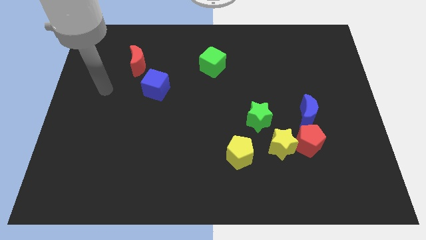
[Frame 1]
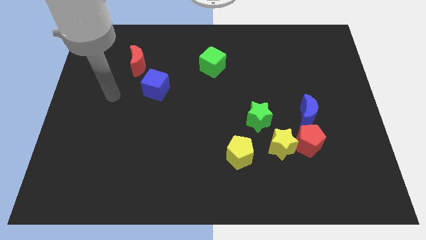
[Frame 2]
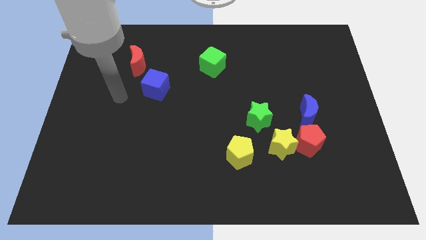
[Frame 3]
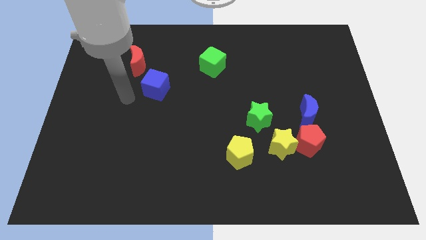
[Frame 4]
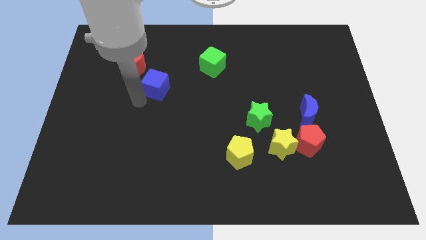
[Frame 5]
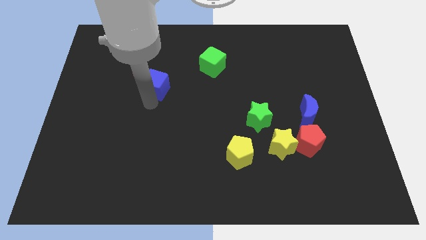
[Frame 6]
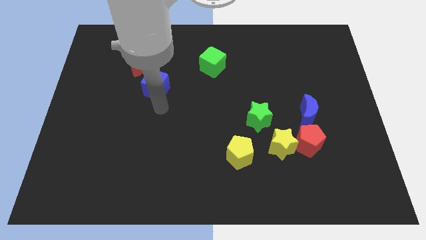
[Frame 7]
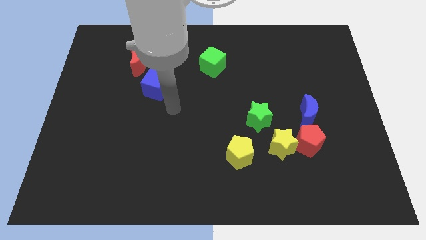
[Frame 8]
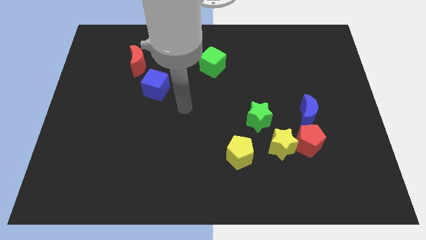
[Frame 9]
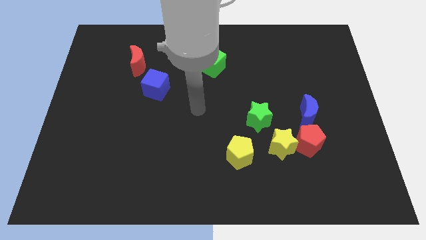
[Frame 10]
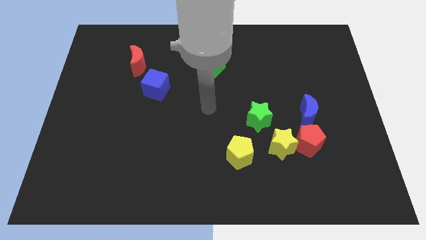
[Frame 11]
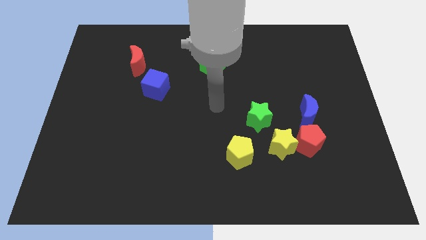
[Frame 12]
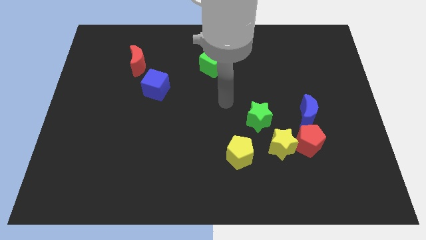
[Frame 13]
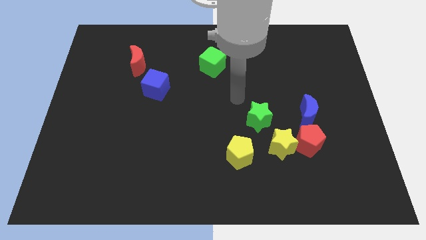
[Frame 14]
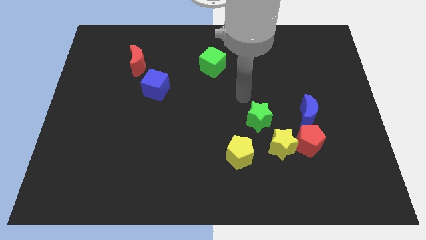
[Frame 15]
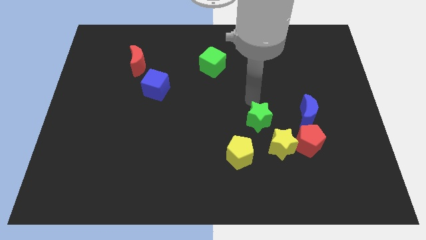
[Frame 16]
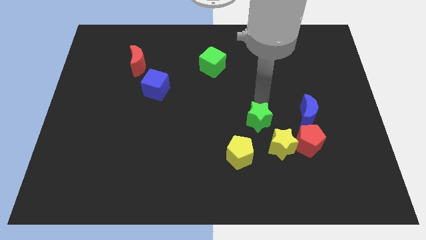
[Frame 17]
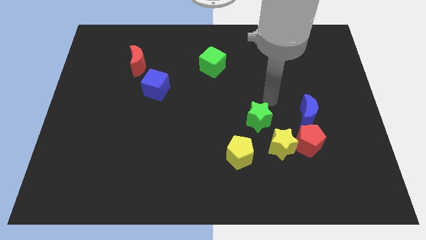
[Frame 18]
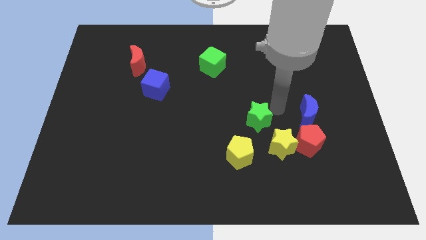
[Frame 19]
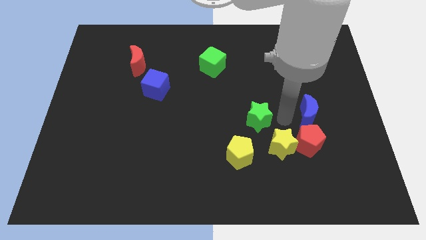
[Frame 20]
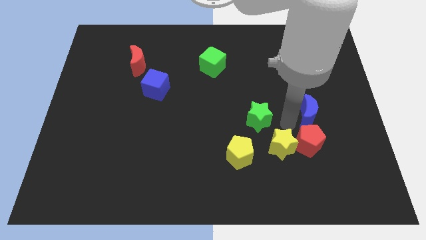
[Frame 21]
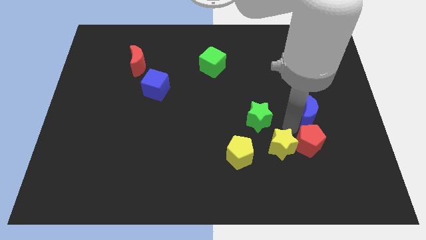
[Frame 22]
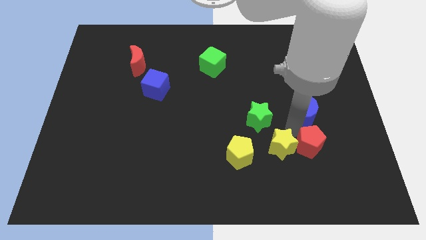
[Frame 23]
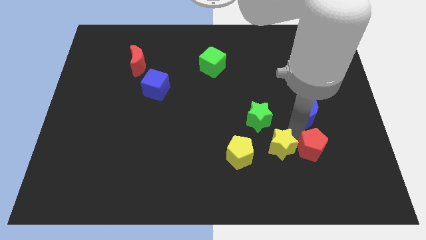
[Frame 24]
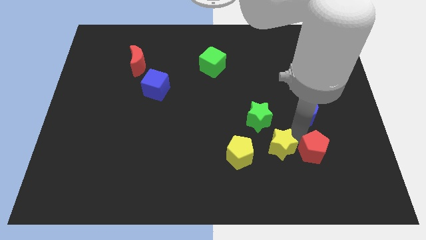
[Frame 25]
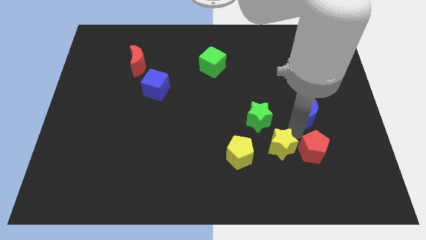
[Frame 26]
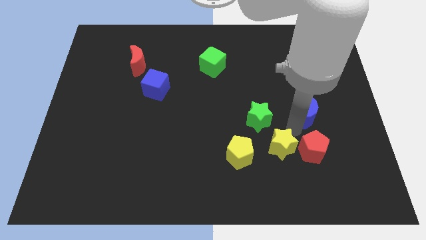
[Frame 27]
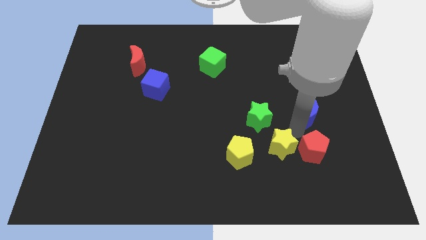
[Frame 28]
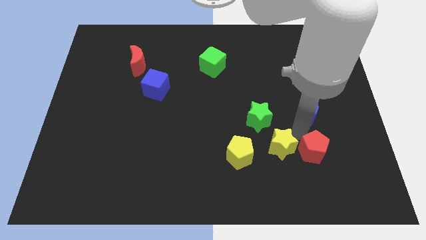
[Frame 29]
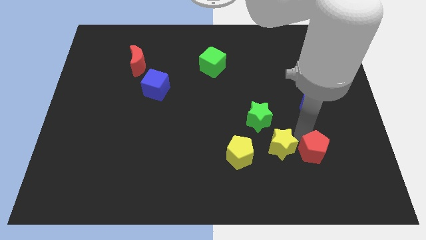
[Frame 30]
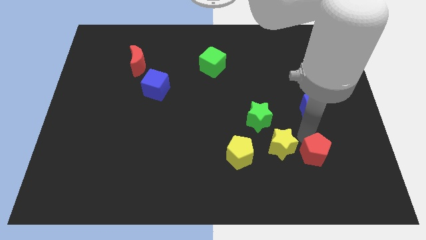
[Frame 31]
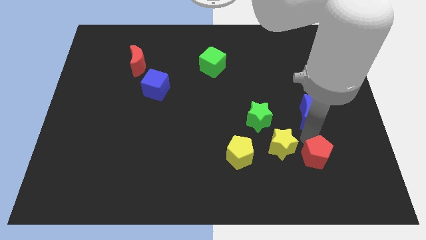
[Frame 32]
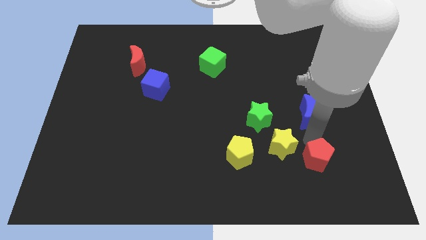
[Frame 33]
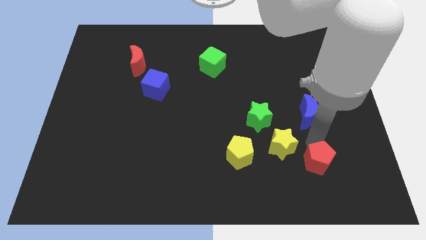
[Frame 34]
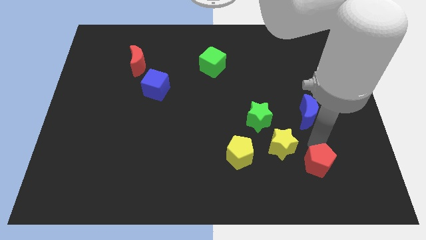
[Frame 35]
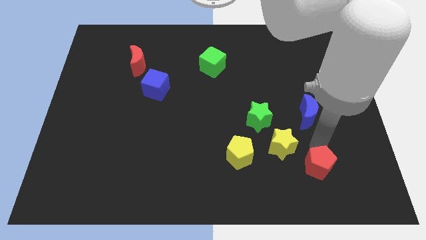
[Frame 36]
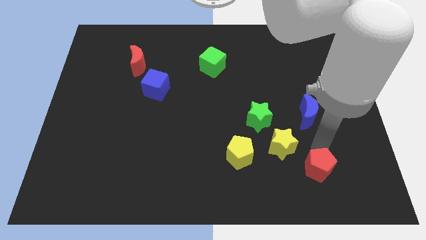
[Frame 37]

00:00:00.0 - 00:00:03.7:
pull the red pentagon apart from the yellow star and blue moon

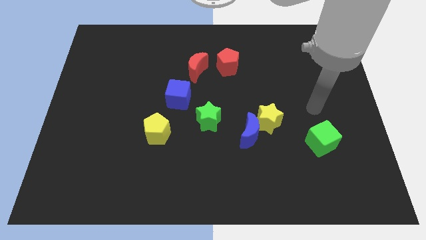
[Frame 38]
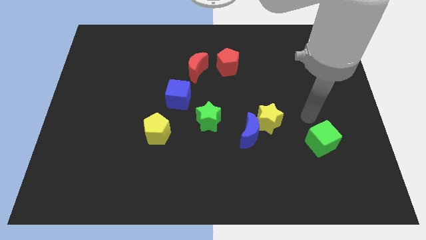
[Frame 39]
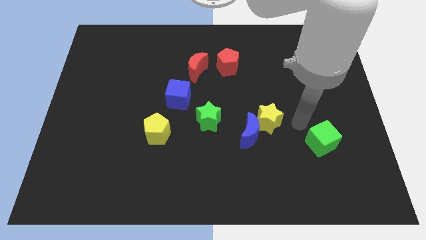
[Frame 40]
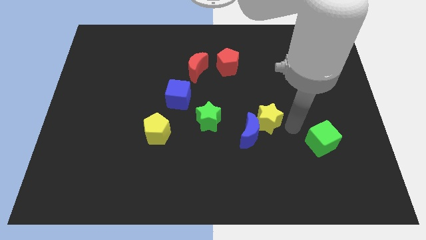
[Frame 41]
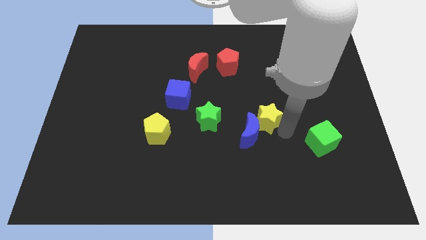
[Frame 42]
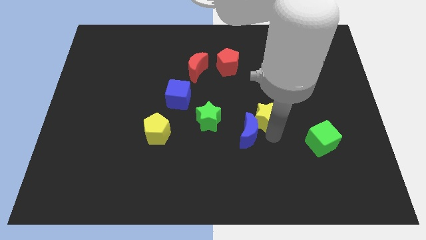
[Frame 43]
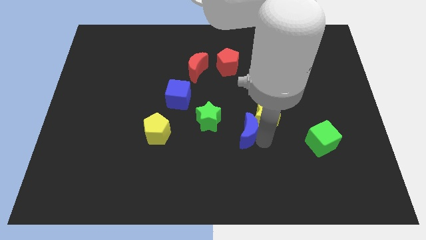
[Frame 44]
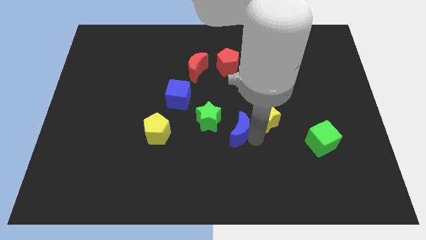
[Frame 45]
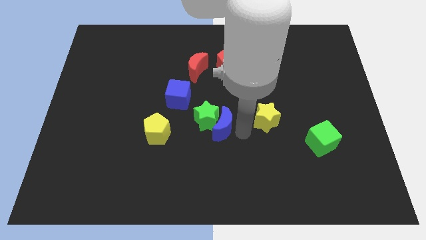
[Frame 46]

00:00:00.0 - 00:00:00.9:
separate the yellow star from the blue moon

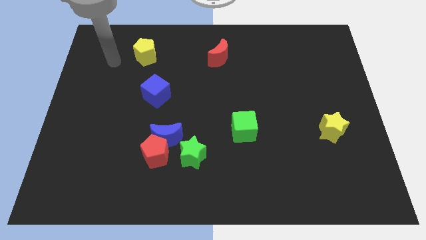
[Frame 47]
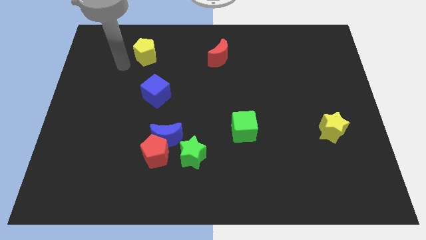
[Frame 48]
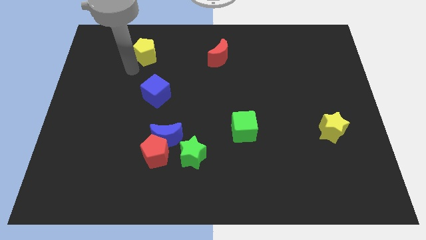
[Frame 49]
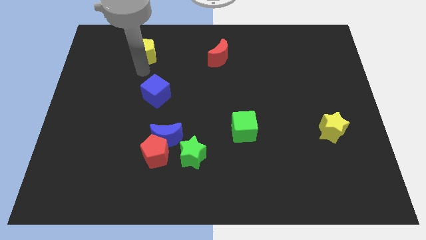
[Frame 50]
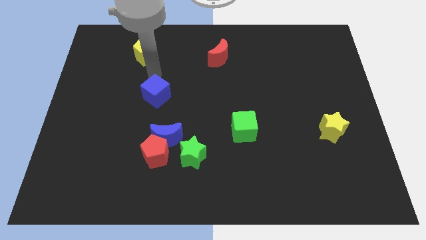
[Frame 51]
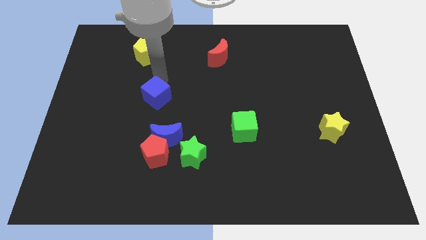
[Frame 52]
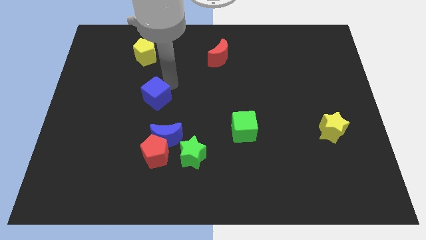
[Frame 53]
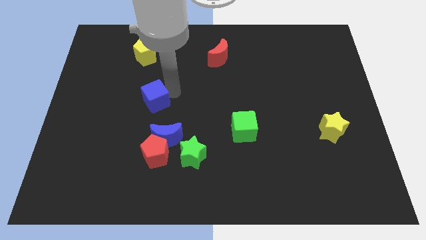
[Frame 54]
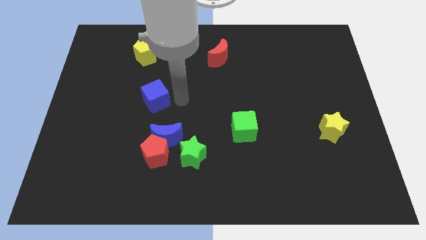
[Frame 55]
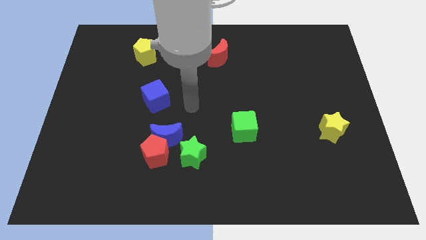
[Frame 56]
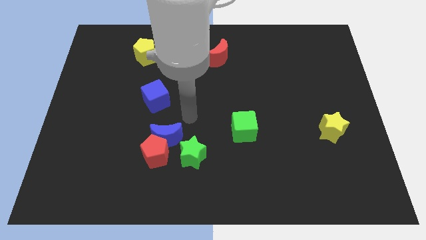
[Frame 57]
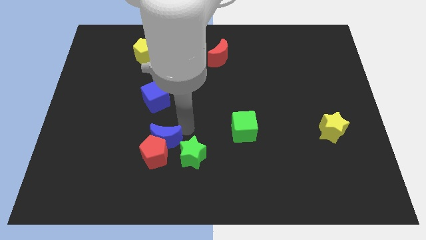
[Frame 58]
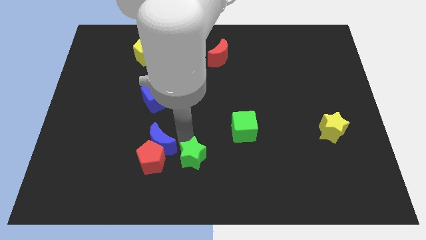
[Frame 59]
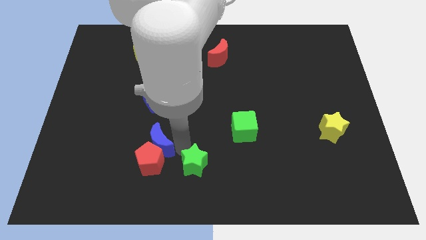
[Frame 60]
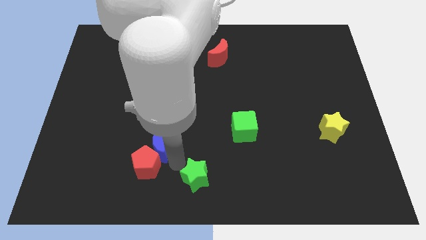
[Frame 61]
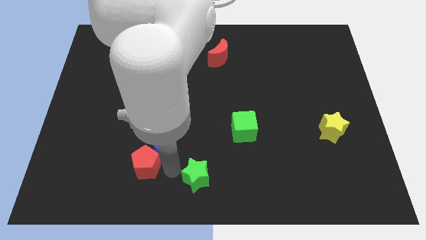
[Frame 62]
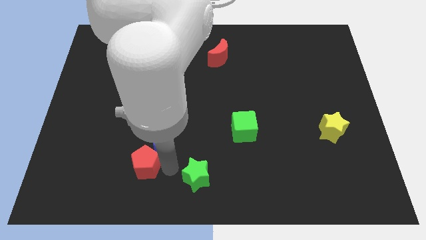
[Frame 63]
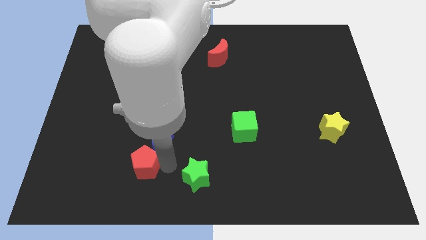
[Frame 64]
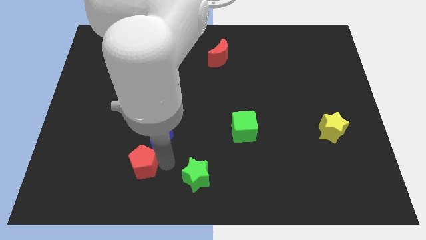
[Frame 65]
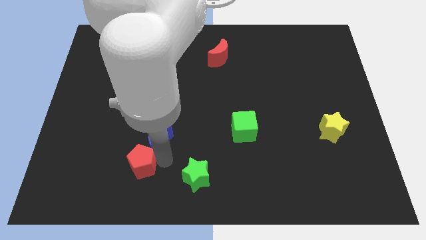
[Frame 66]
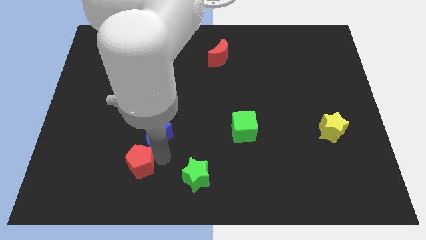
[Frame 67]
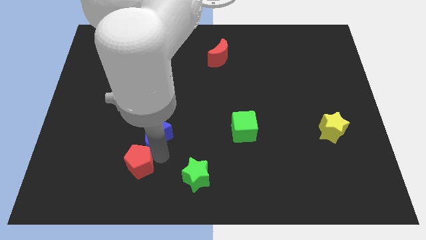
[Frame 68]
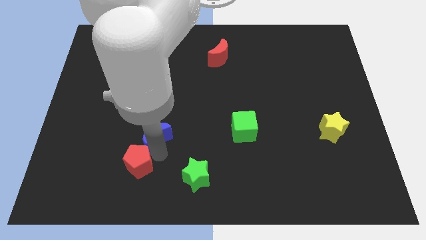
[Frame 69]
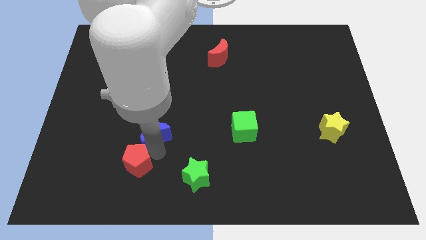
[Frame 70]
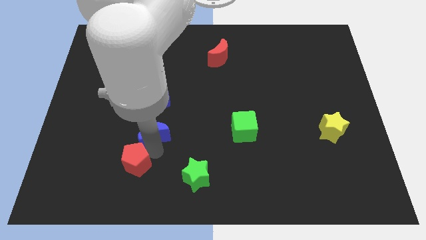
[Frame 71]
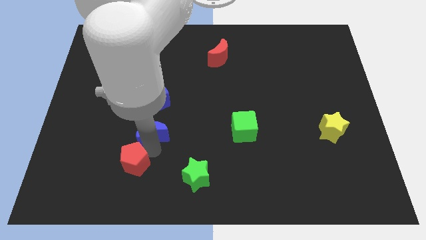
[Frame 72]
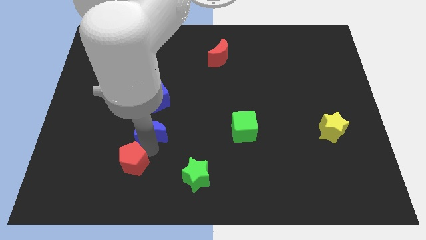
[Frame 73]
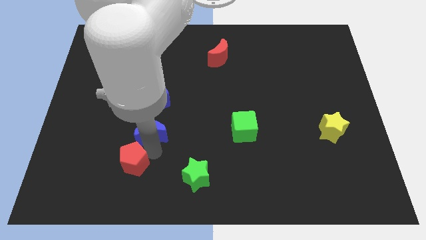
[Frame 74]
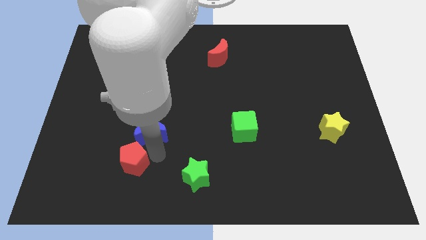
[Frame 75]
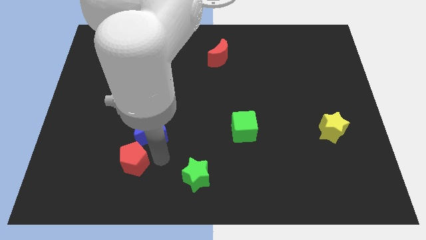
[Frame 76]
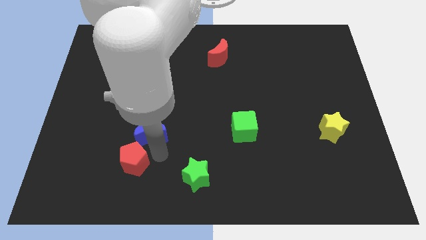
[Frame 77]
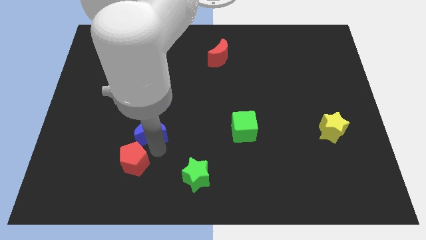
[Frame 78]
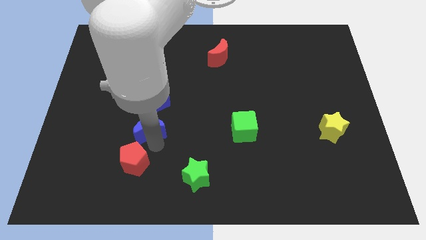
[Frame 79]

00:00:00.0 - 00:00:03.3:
pull the blue moon apart from the red pentagon and green star

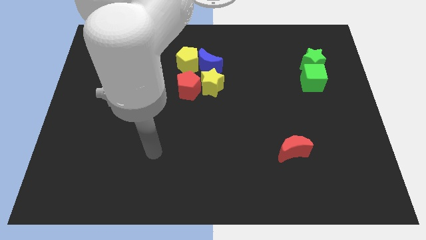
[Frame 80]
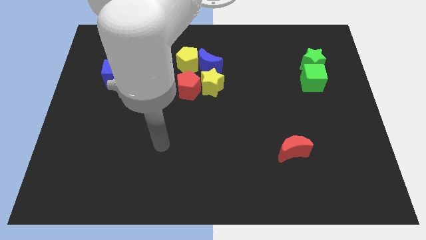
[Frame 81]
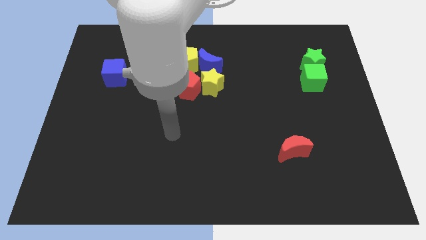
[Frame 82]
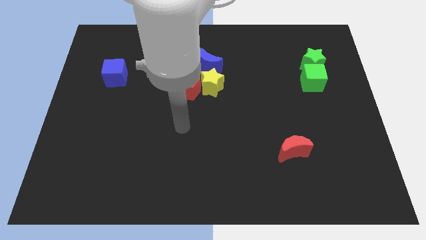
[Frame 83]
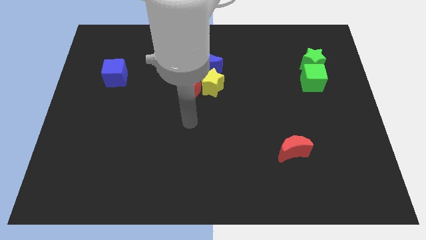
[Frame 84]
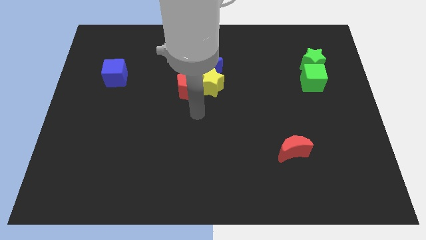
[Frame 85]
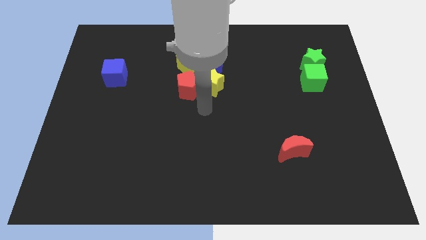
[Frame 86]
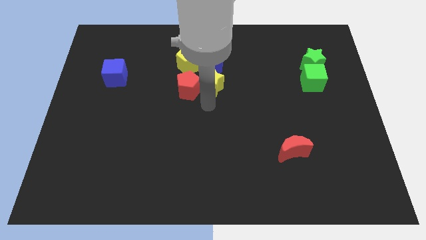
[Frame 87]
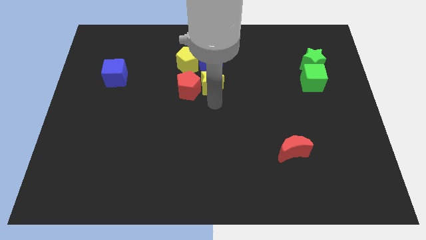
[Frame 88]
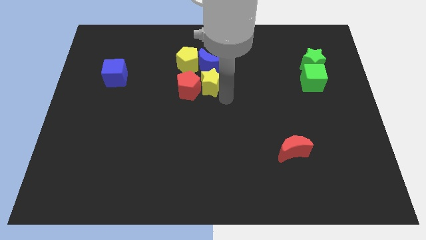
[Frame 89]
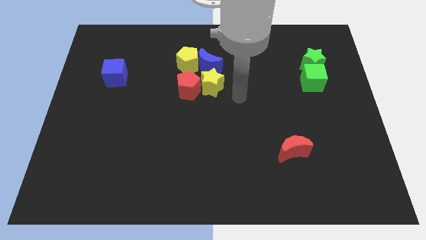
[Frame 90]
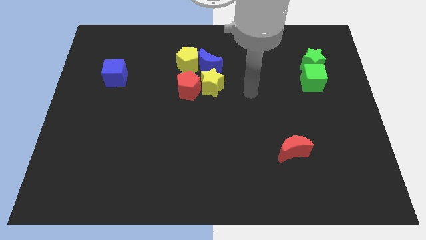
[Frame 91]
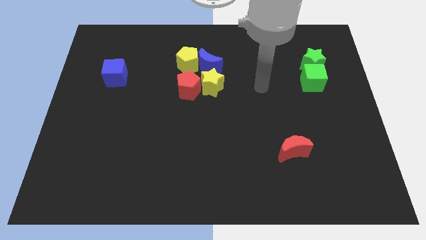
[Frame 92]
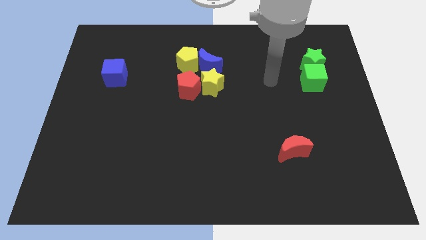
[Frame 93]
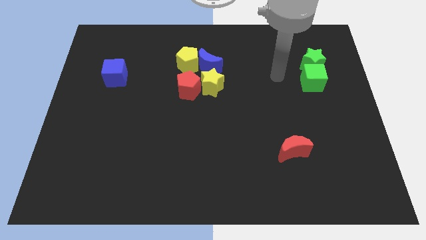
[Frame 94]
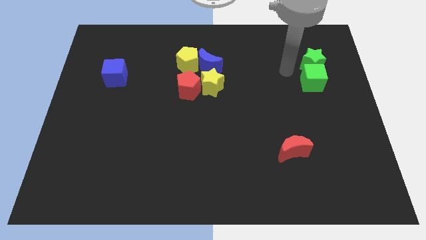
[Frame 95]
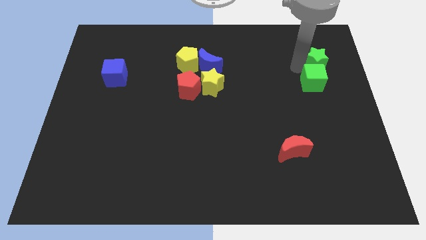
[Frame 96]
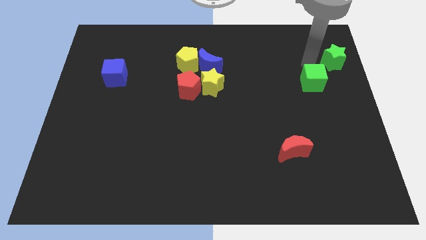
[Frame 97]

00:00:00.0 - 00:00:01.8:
separate the green cube from the green star
